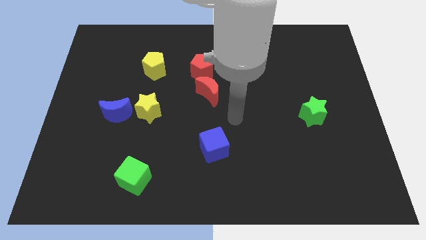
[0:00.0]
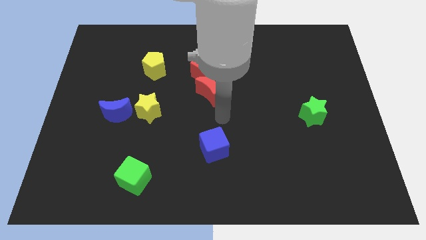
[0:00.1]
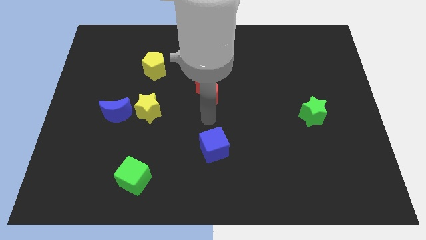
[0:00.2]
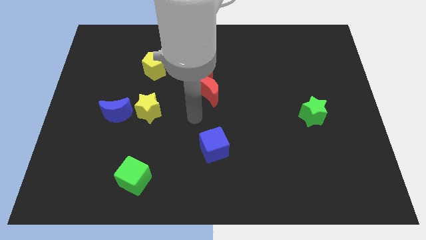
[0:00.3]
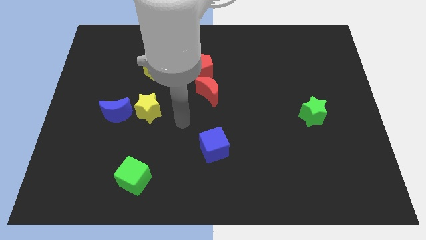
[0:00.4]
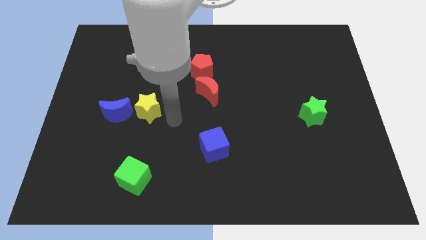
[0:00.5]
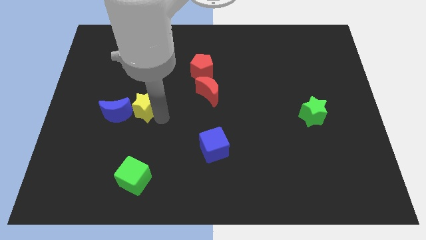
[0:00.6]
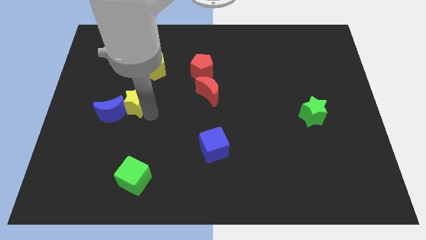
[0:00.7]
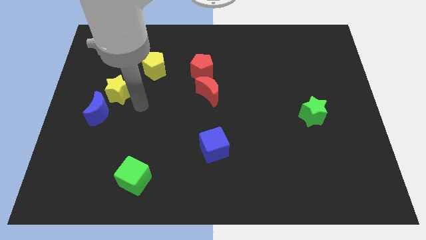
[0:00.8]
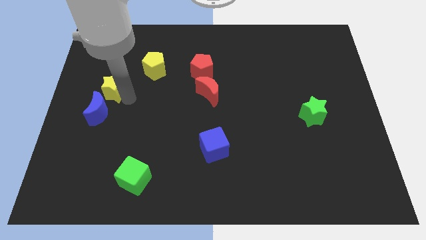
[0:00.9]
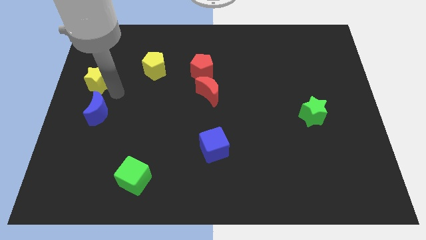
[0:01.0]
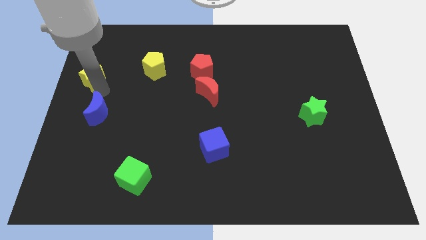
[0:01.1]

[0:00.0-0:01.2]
move the blue moon away from the yellow star

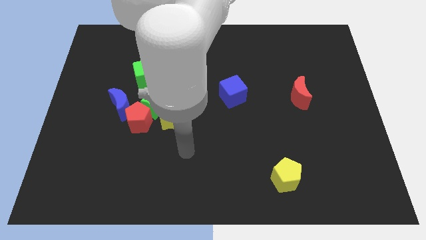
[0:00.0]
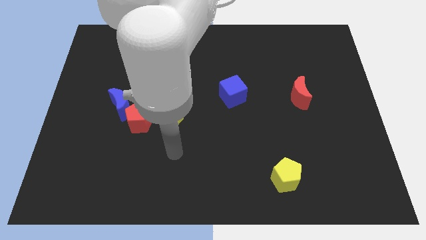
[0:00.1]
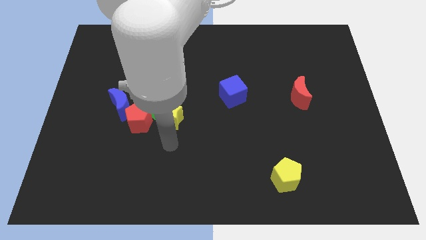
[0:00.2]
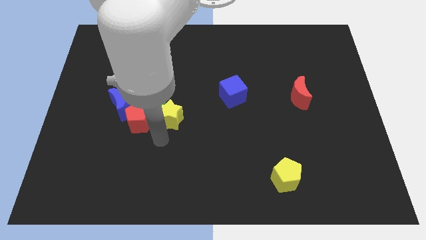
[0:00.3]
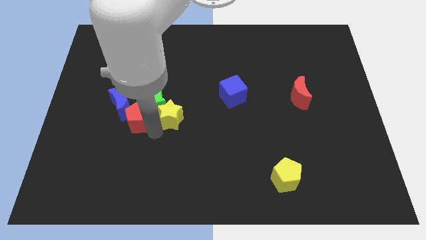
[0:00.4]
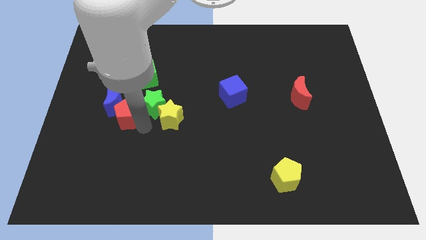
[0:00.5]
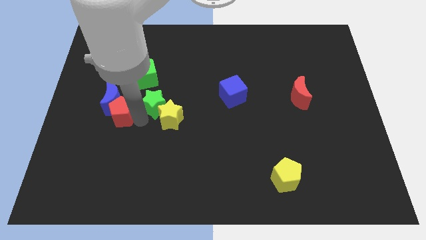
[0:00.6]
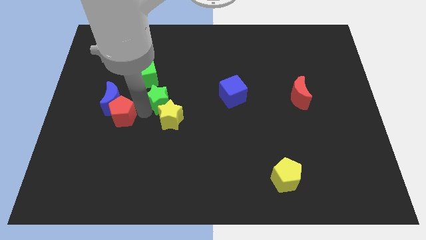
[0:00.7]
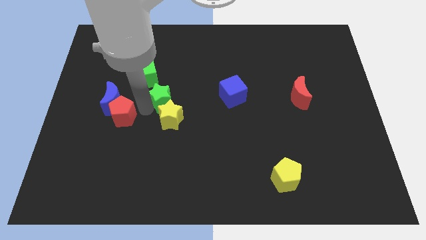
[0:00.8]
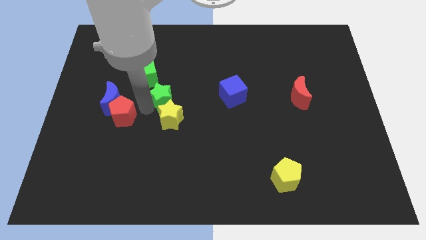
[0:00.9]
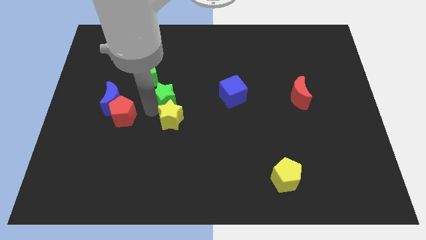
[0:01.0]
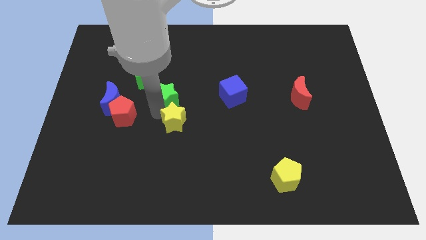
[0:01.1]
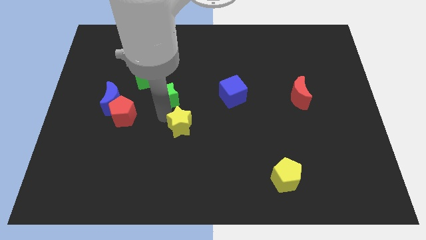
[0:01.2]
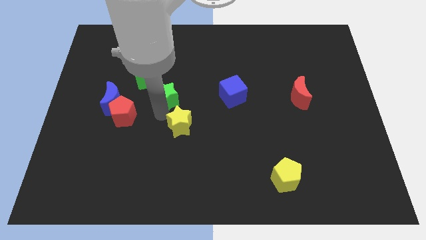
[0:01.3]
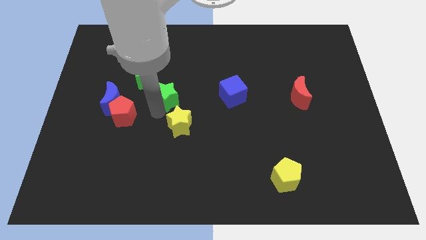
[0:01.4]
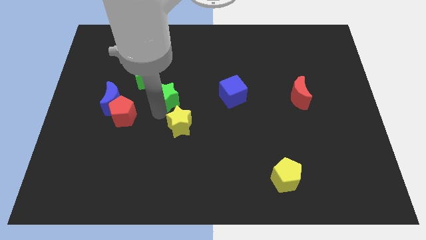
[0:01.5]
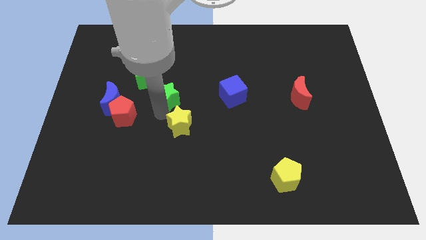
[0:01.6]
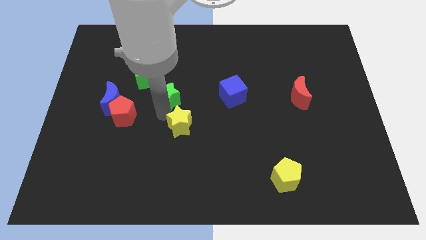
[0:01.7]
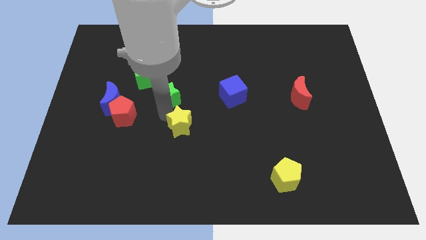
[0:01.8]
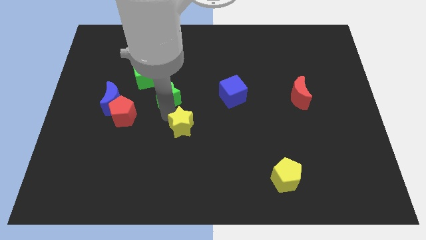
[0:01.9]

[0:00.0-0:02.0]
pull the yellow star apart from the green star and red pentagon

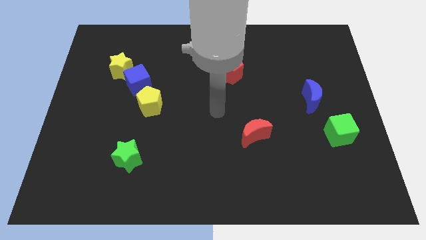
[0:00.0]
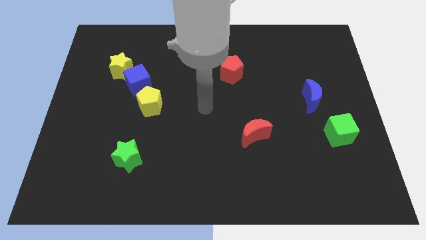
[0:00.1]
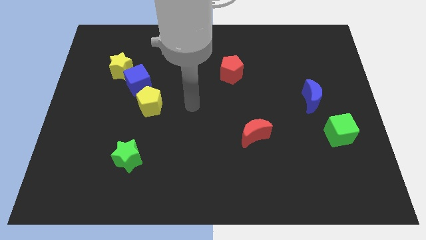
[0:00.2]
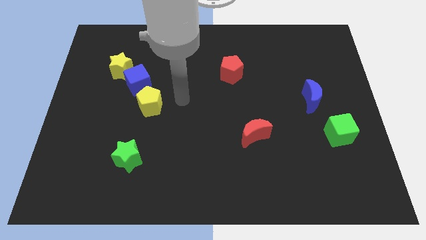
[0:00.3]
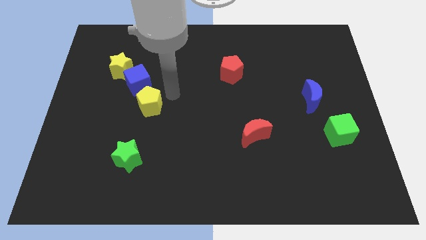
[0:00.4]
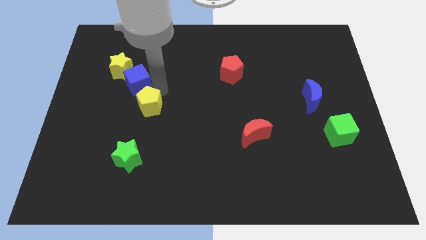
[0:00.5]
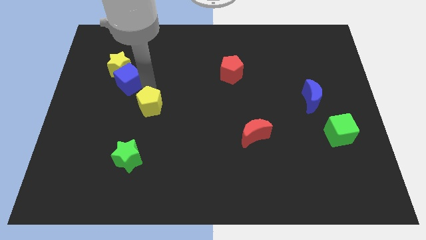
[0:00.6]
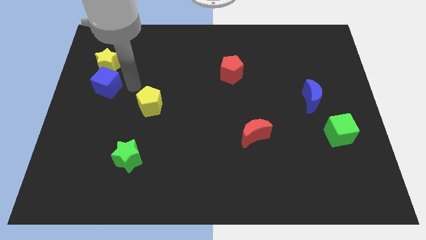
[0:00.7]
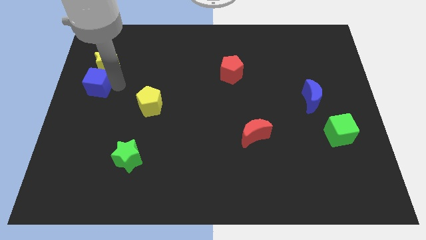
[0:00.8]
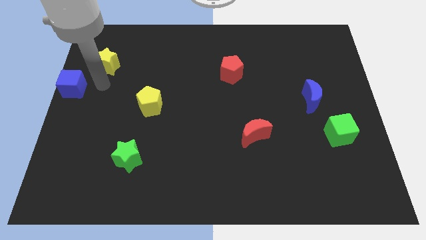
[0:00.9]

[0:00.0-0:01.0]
pull the yellow star apart from the blue cube

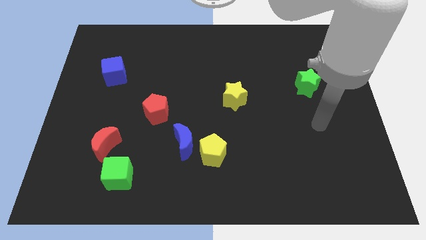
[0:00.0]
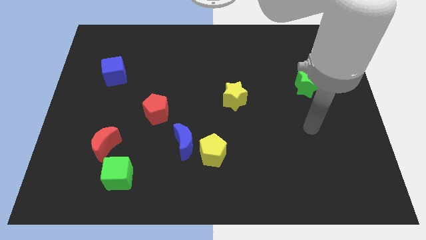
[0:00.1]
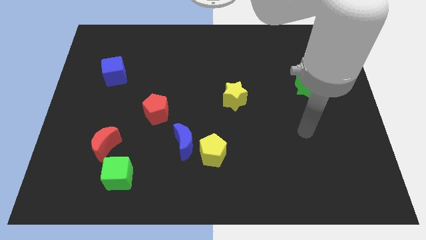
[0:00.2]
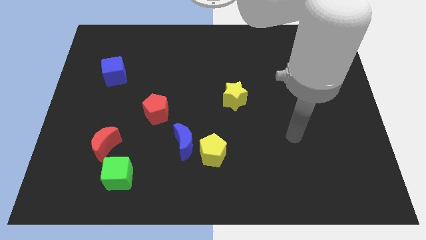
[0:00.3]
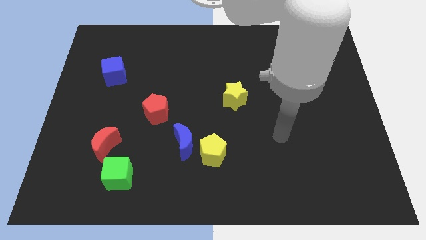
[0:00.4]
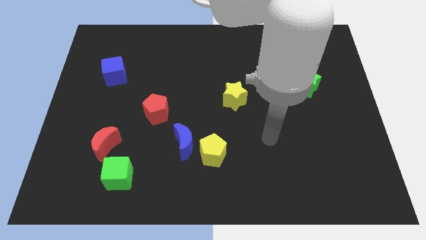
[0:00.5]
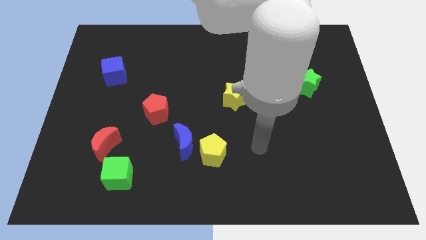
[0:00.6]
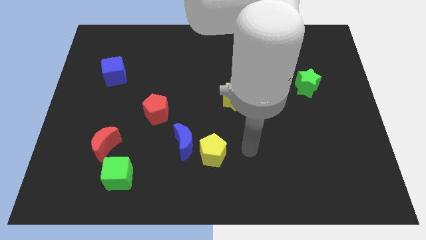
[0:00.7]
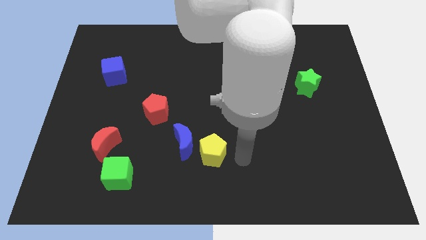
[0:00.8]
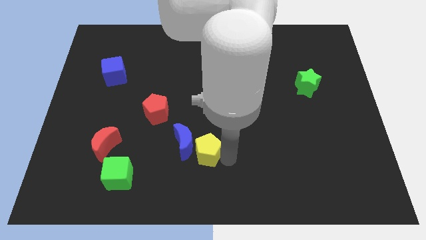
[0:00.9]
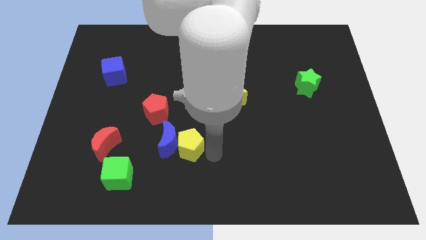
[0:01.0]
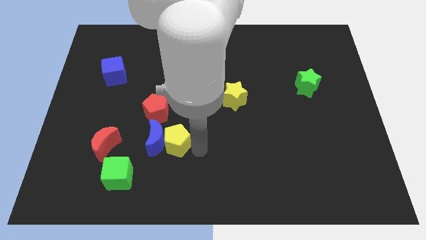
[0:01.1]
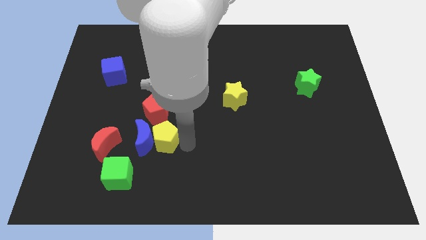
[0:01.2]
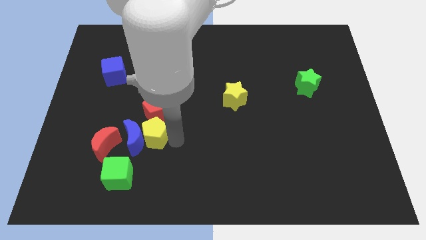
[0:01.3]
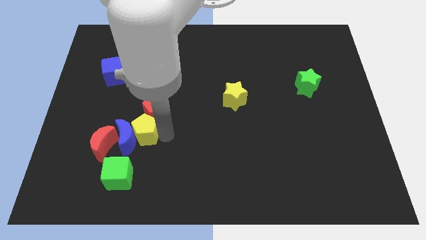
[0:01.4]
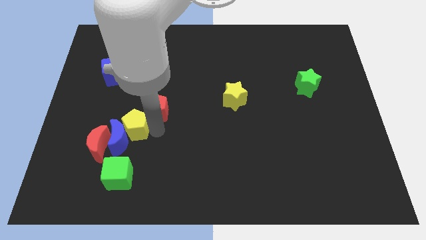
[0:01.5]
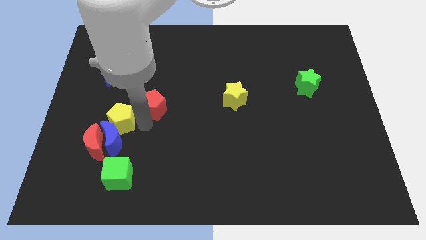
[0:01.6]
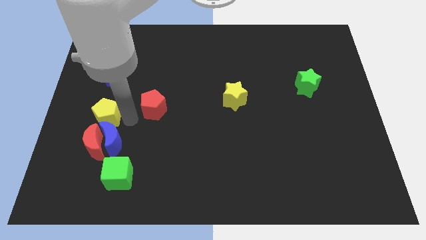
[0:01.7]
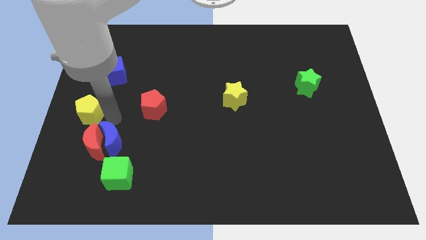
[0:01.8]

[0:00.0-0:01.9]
move the blue moon away from the yellow pentagon

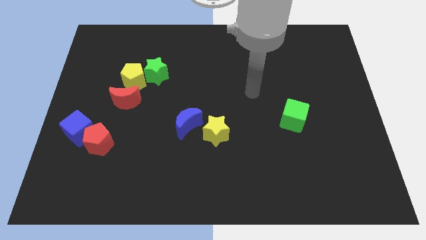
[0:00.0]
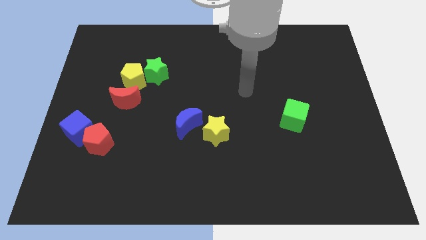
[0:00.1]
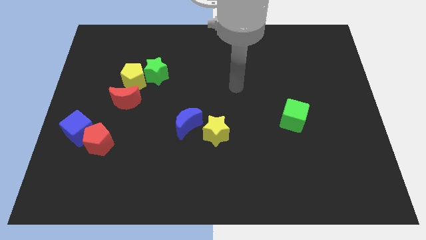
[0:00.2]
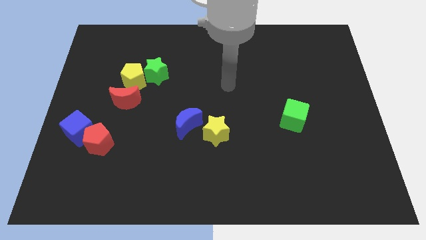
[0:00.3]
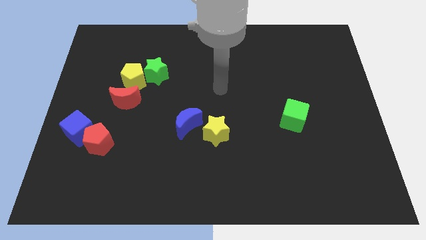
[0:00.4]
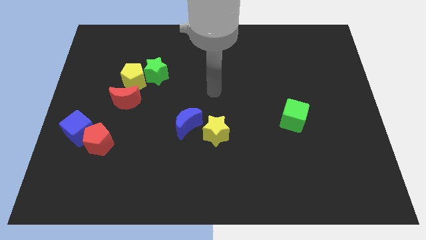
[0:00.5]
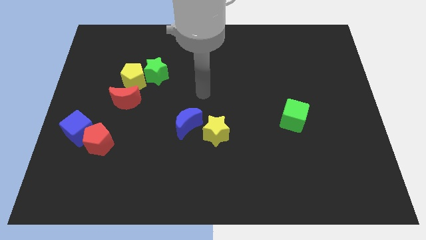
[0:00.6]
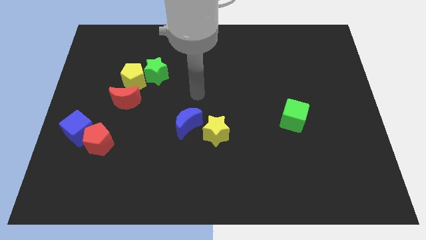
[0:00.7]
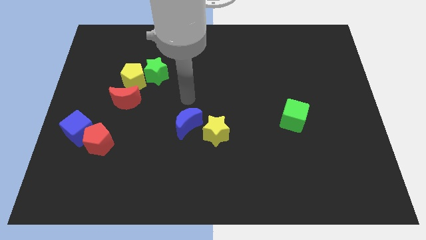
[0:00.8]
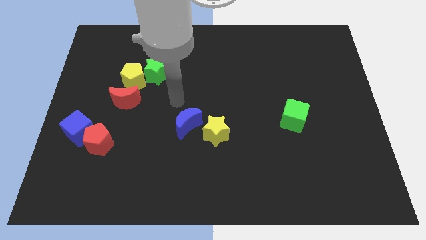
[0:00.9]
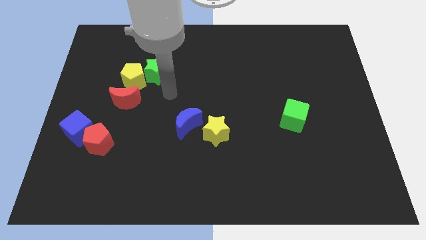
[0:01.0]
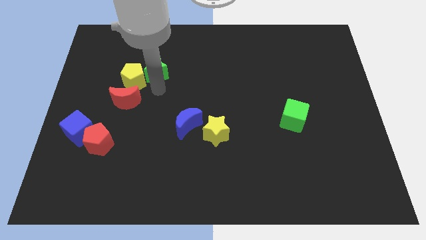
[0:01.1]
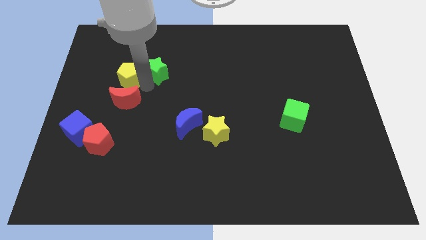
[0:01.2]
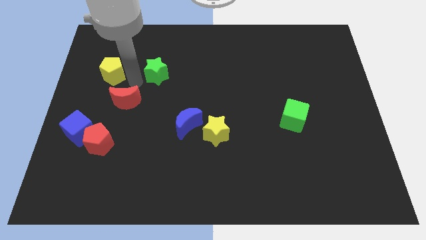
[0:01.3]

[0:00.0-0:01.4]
separate the green star from the yellow pentagon

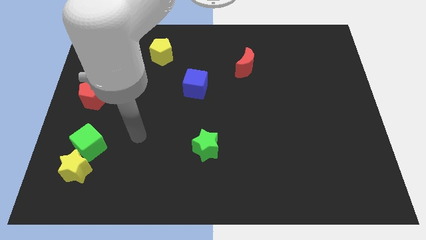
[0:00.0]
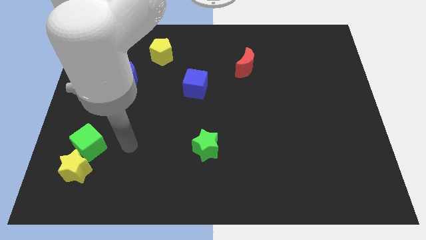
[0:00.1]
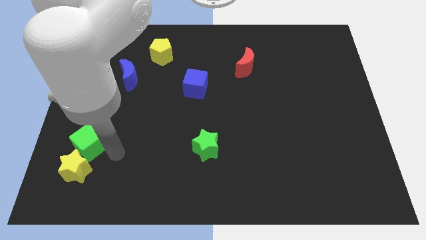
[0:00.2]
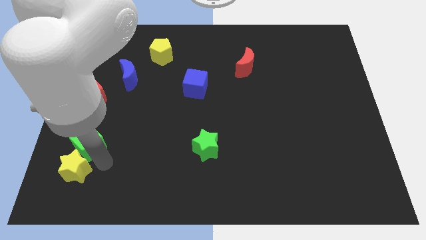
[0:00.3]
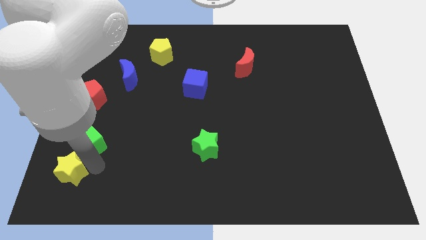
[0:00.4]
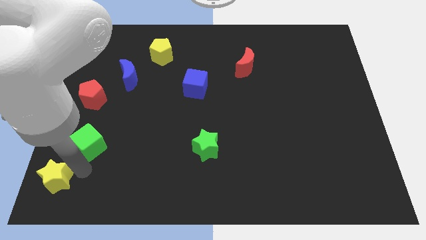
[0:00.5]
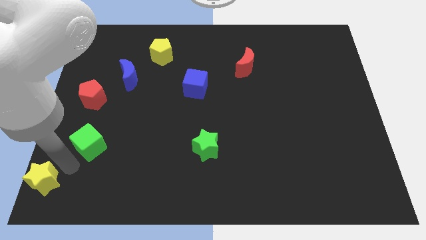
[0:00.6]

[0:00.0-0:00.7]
pull the green cube apart from the yellow star

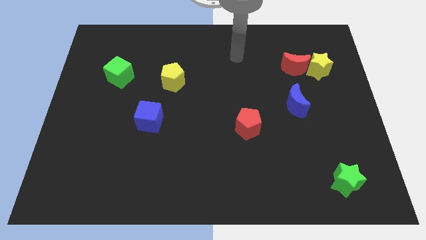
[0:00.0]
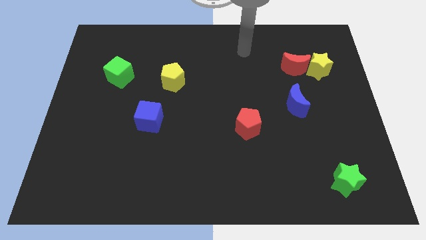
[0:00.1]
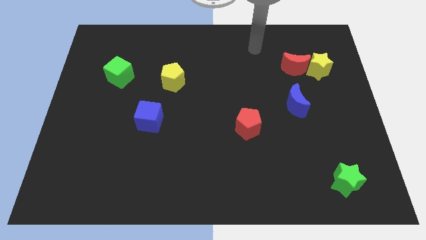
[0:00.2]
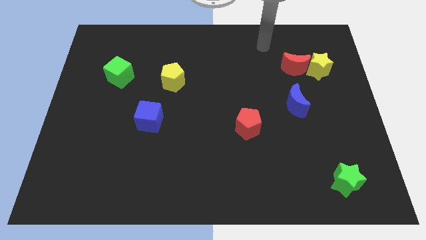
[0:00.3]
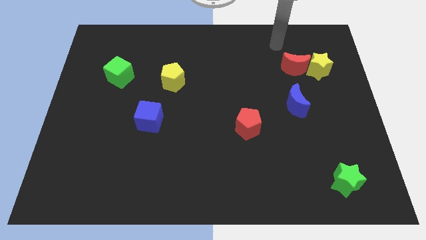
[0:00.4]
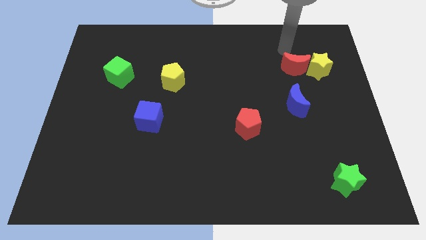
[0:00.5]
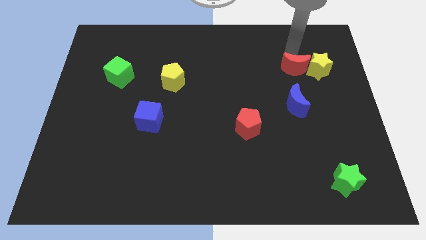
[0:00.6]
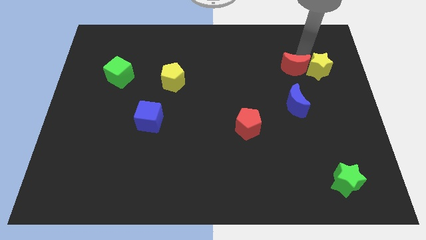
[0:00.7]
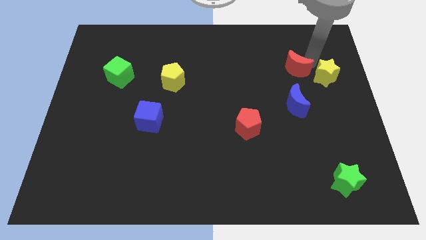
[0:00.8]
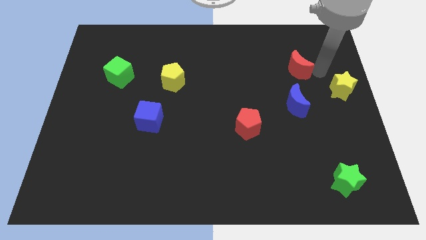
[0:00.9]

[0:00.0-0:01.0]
separate the red moon from the yellow star

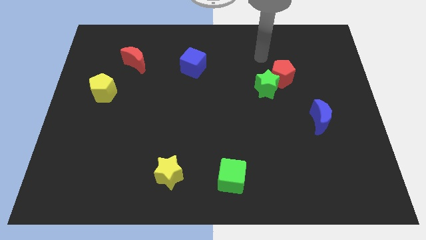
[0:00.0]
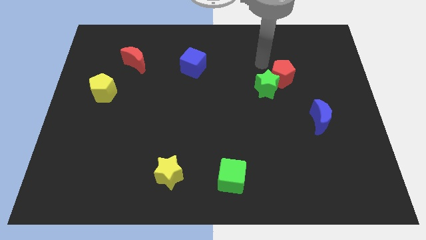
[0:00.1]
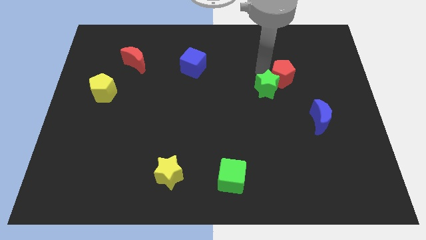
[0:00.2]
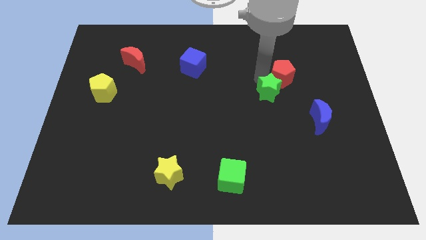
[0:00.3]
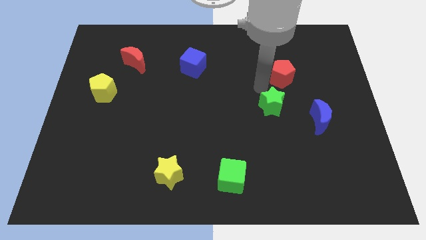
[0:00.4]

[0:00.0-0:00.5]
separate the red pentagon from the green star
